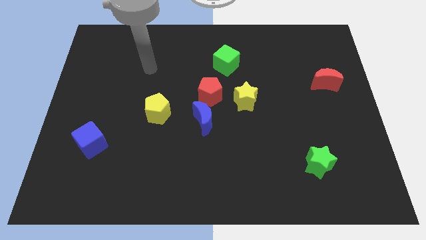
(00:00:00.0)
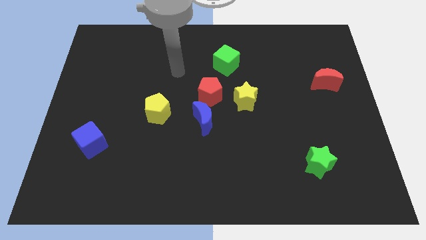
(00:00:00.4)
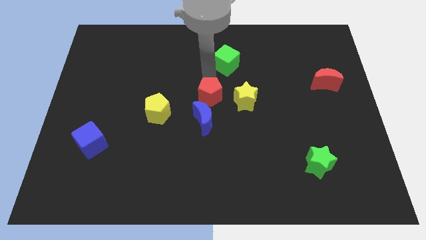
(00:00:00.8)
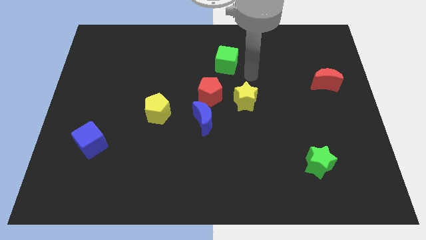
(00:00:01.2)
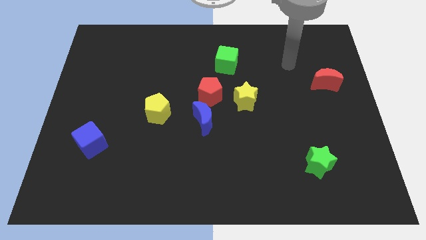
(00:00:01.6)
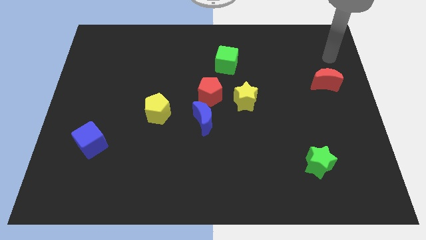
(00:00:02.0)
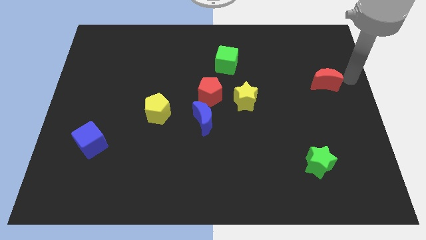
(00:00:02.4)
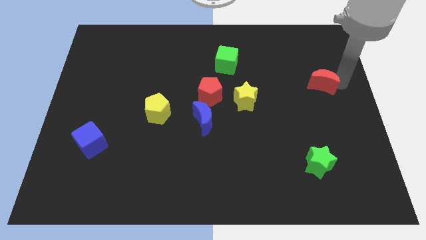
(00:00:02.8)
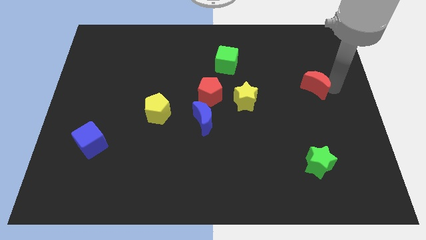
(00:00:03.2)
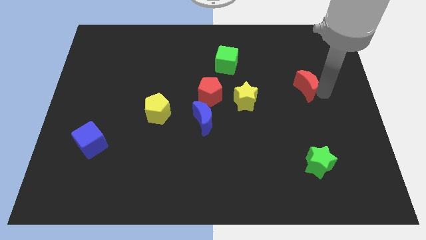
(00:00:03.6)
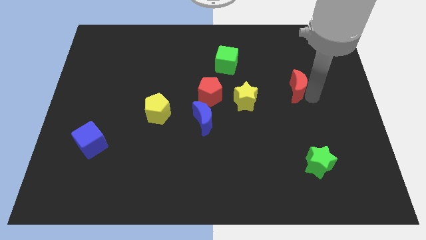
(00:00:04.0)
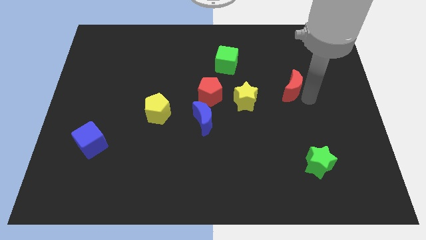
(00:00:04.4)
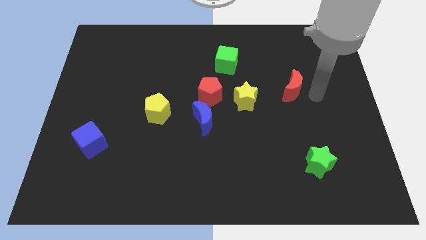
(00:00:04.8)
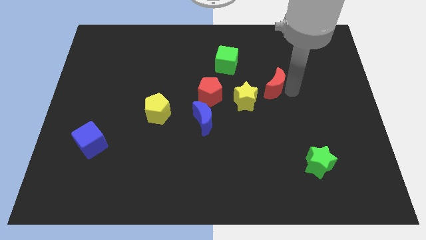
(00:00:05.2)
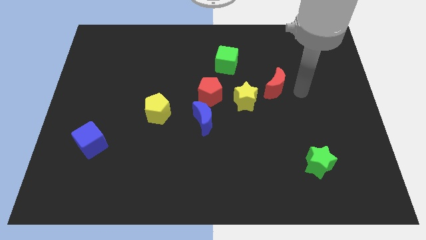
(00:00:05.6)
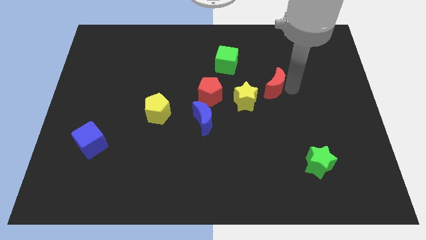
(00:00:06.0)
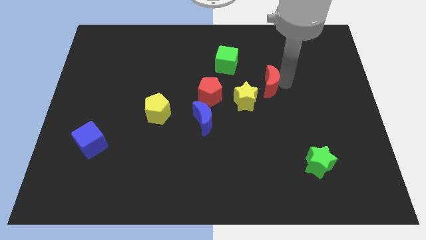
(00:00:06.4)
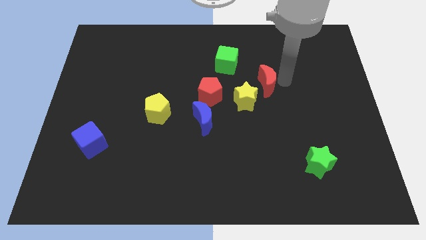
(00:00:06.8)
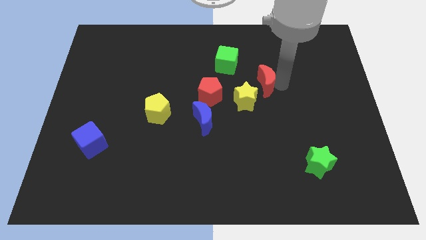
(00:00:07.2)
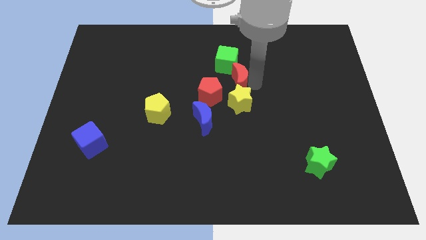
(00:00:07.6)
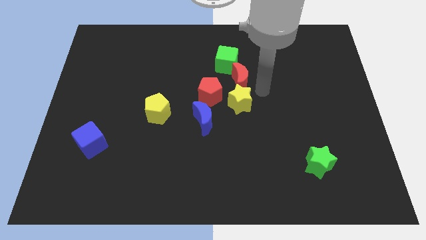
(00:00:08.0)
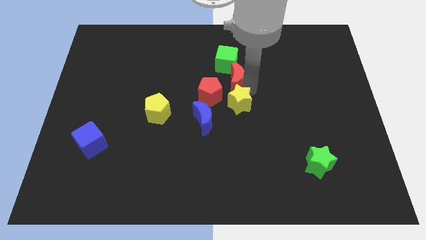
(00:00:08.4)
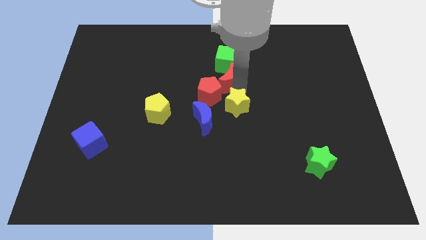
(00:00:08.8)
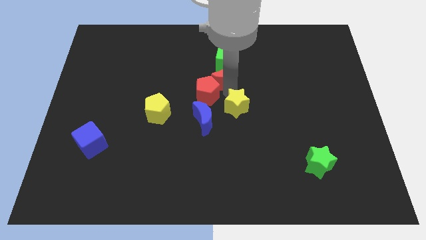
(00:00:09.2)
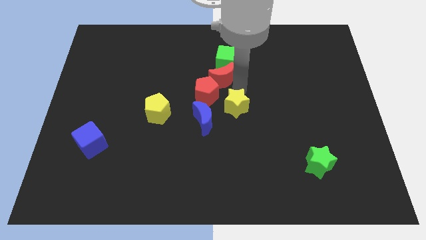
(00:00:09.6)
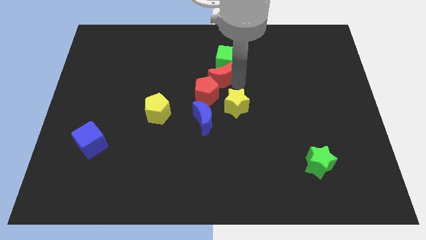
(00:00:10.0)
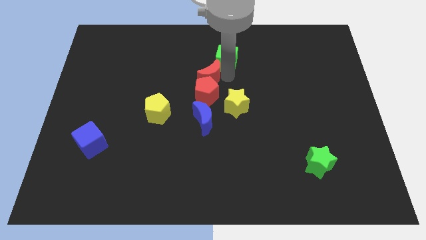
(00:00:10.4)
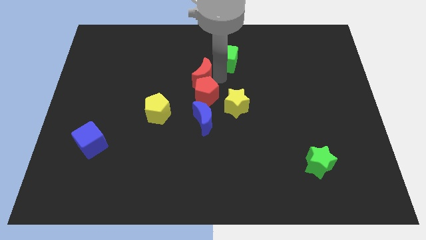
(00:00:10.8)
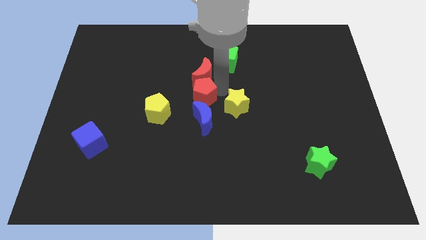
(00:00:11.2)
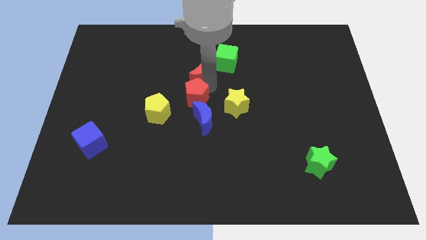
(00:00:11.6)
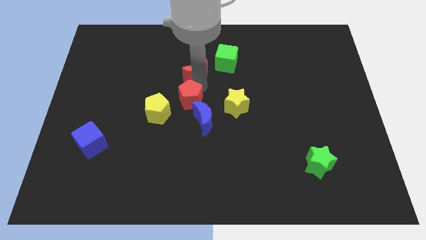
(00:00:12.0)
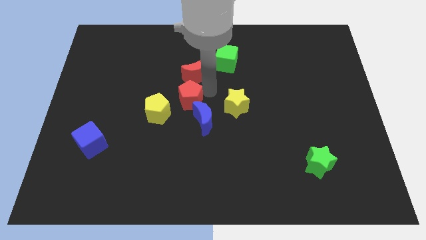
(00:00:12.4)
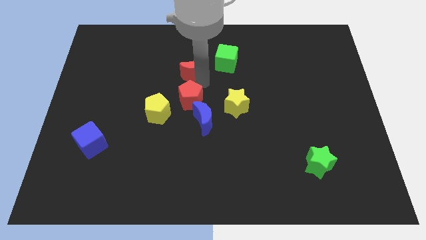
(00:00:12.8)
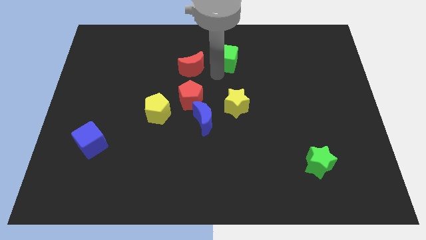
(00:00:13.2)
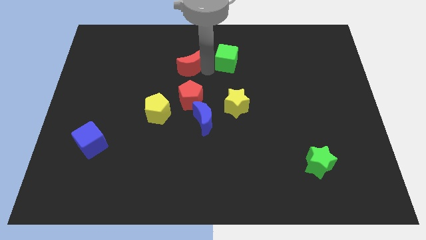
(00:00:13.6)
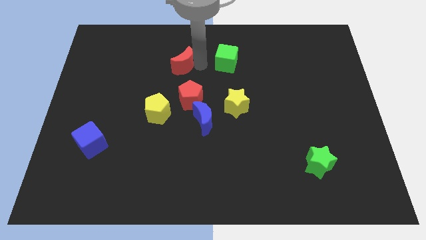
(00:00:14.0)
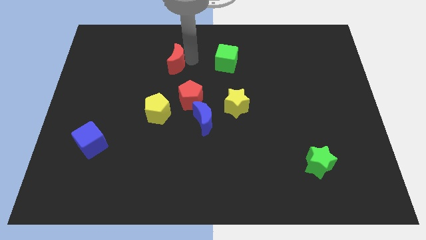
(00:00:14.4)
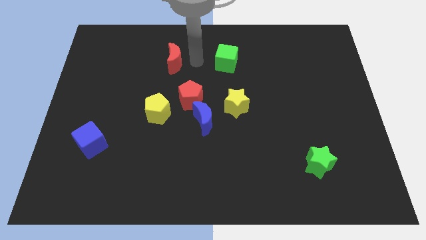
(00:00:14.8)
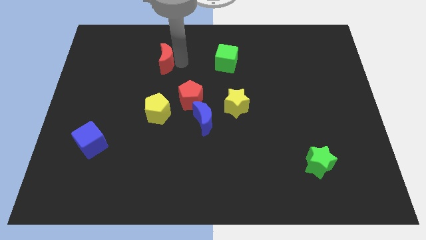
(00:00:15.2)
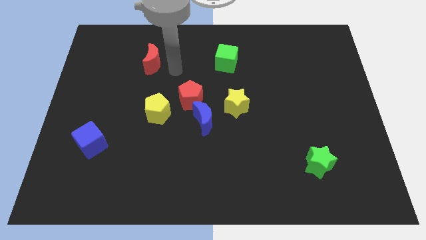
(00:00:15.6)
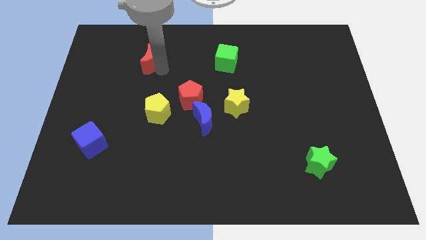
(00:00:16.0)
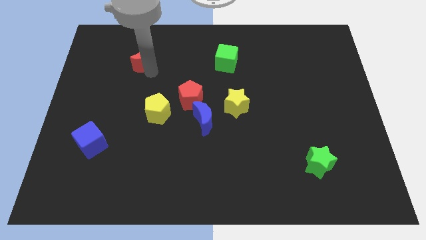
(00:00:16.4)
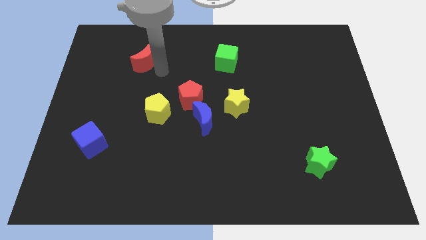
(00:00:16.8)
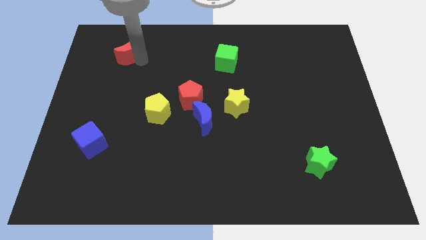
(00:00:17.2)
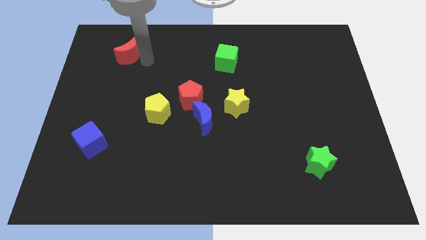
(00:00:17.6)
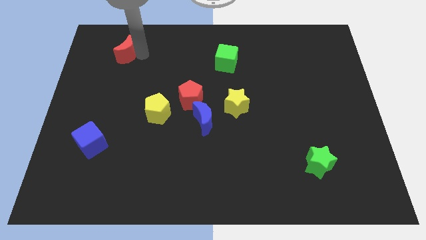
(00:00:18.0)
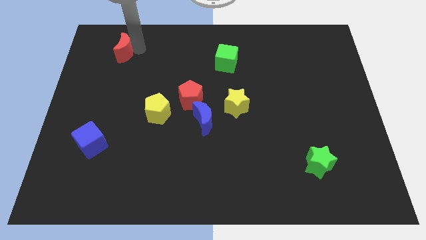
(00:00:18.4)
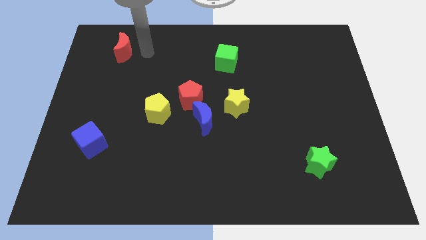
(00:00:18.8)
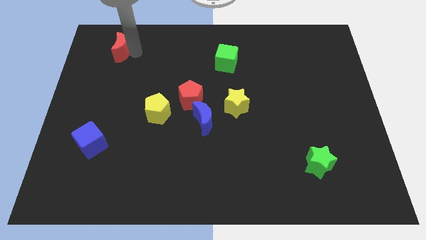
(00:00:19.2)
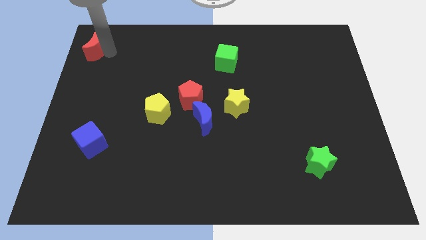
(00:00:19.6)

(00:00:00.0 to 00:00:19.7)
push the red moon to the top left

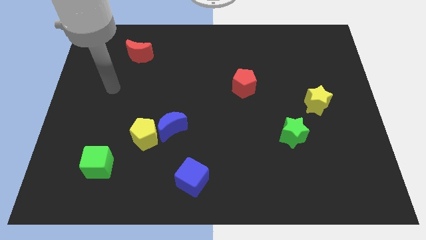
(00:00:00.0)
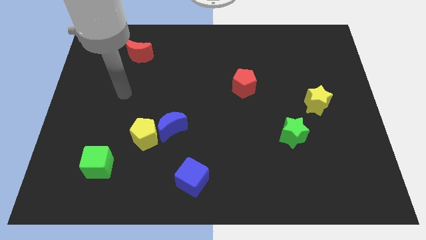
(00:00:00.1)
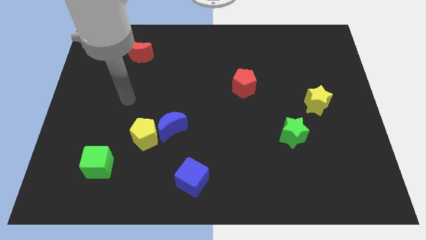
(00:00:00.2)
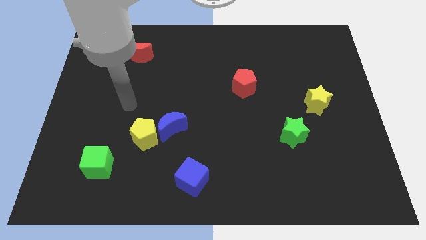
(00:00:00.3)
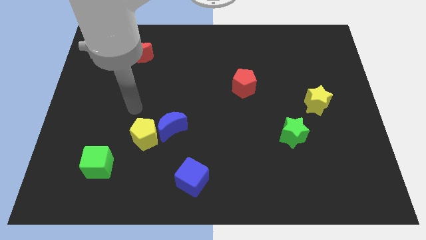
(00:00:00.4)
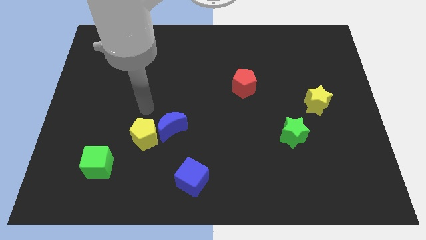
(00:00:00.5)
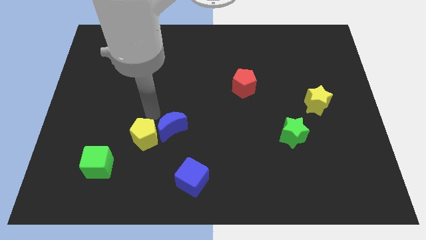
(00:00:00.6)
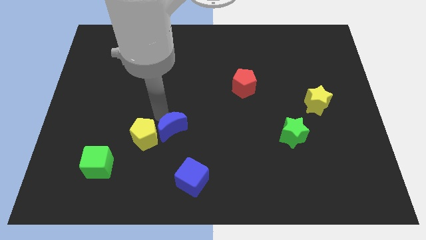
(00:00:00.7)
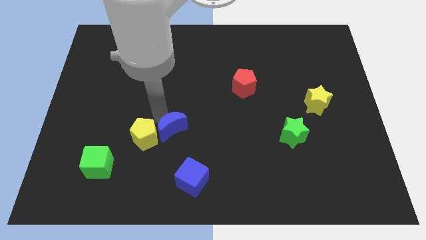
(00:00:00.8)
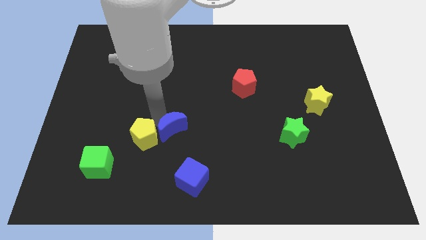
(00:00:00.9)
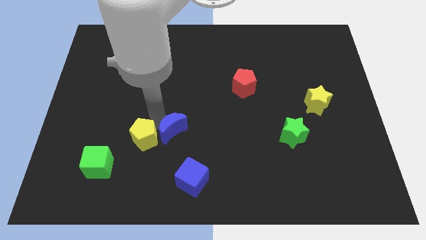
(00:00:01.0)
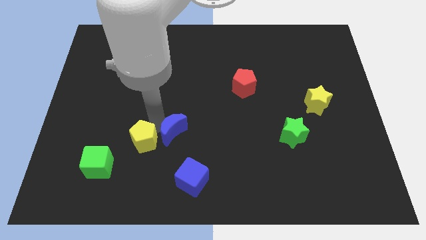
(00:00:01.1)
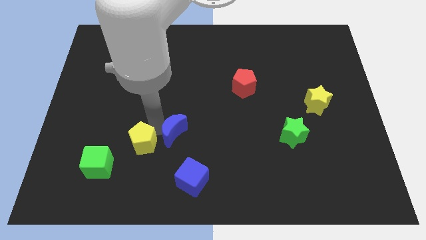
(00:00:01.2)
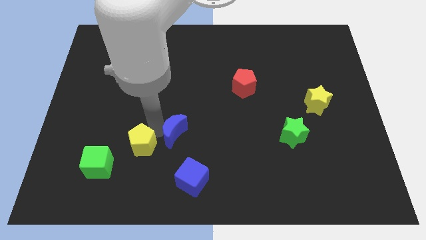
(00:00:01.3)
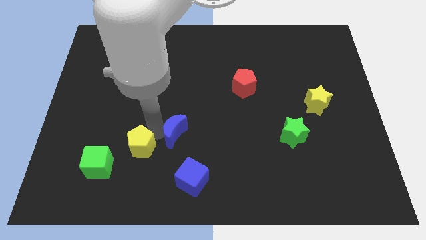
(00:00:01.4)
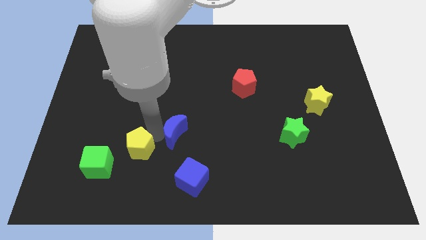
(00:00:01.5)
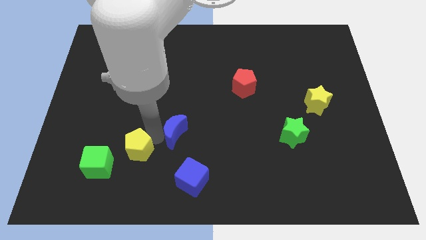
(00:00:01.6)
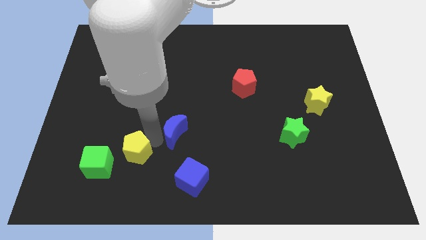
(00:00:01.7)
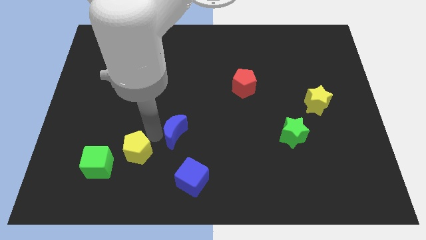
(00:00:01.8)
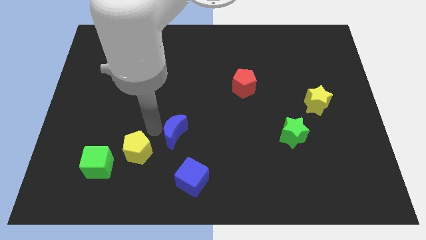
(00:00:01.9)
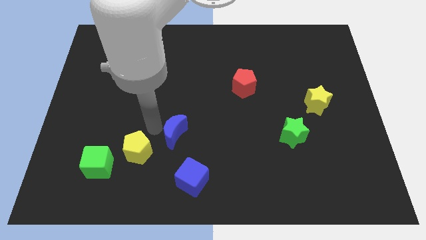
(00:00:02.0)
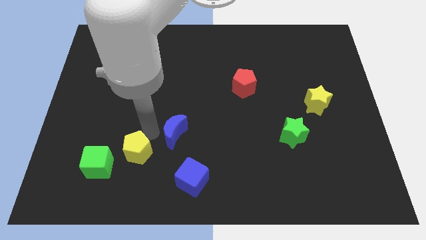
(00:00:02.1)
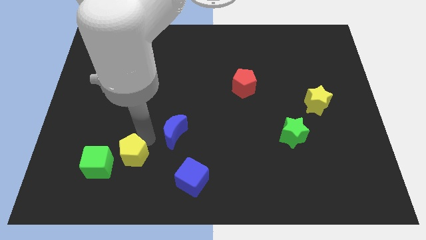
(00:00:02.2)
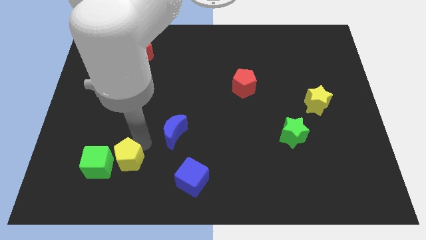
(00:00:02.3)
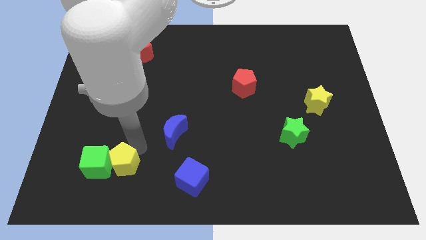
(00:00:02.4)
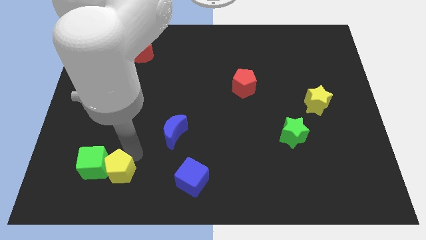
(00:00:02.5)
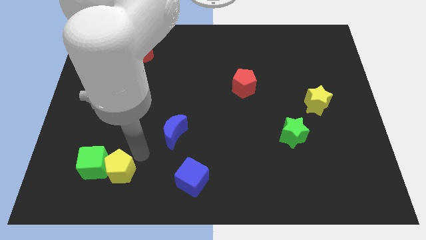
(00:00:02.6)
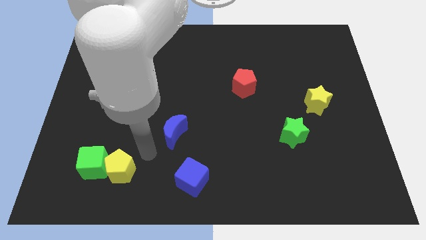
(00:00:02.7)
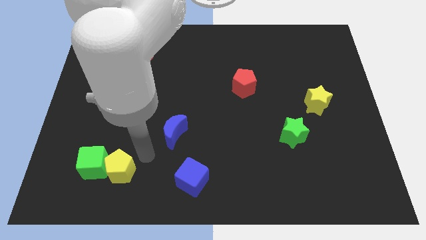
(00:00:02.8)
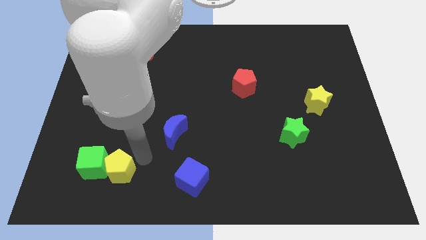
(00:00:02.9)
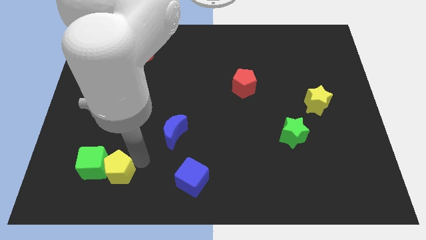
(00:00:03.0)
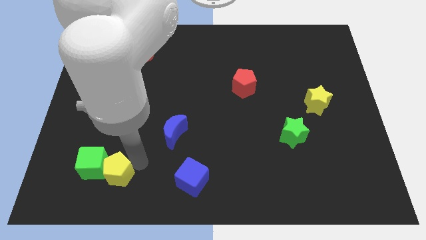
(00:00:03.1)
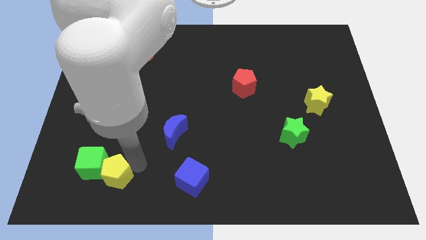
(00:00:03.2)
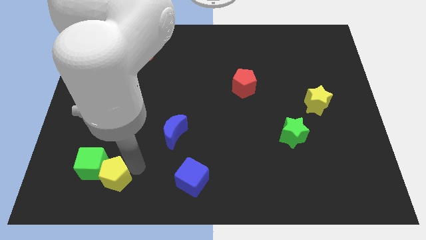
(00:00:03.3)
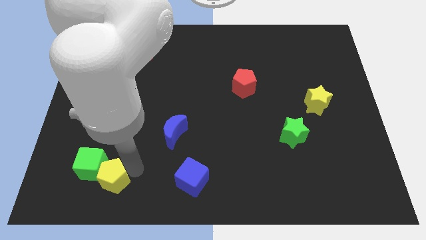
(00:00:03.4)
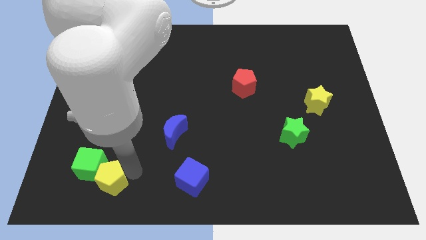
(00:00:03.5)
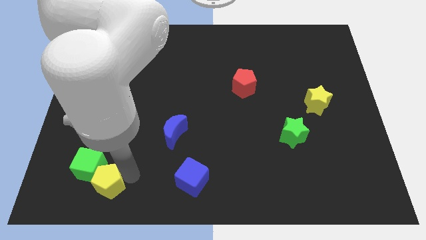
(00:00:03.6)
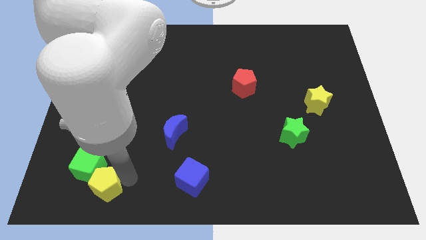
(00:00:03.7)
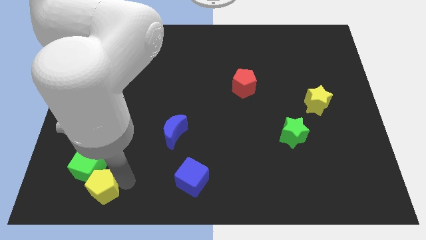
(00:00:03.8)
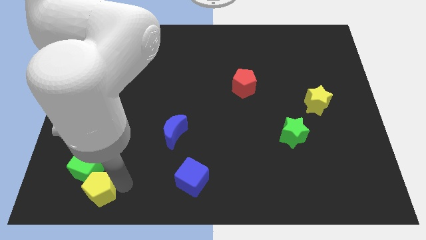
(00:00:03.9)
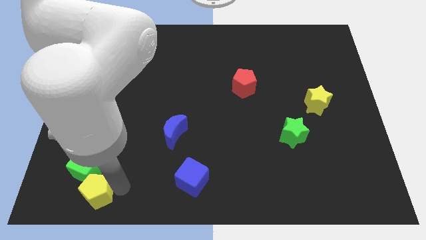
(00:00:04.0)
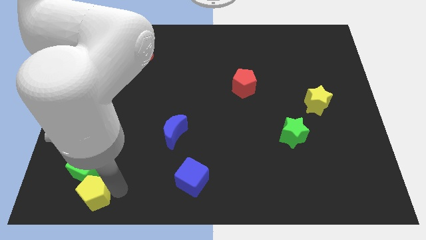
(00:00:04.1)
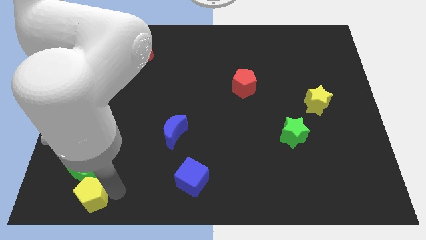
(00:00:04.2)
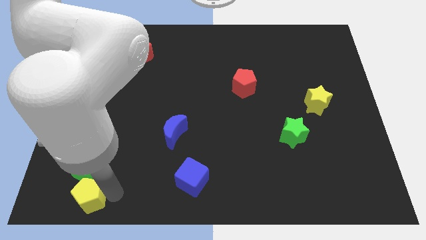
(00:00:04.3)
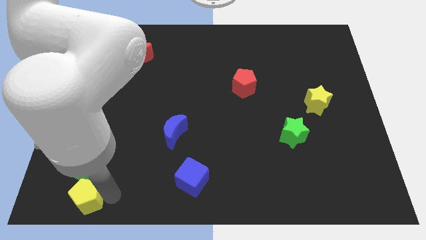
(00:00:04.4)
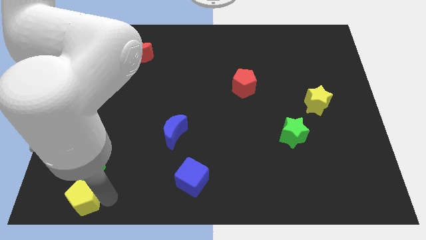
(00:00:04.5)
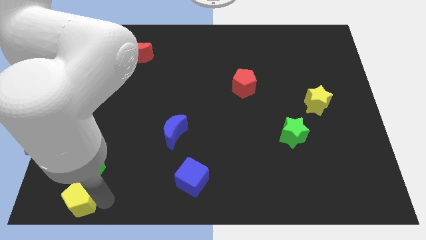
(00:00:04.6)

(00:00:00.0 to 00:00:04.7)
move the yellow pentagon to the lower left corner
